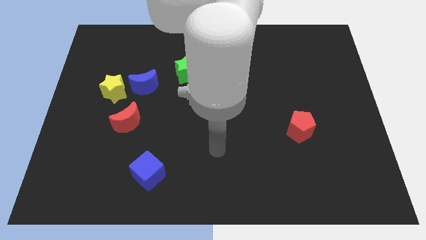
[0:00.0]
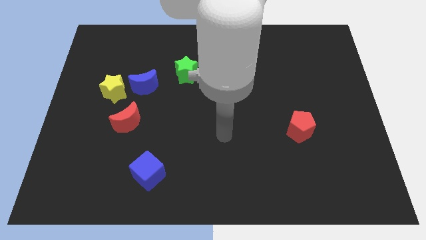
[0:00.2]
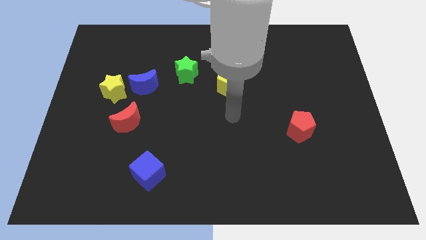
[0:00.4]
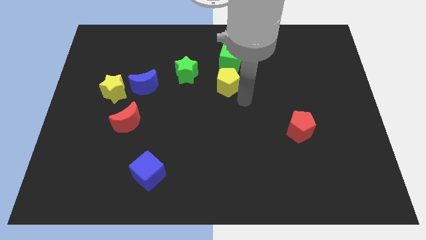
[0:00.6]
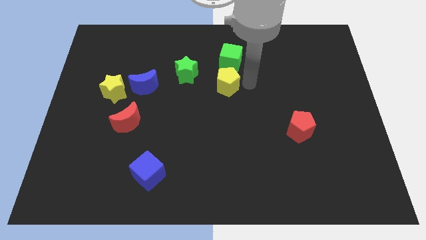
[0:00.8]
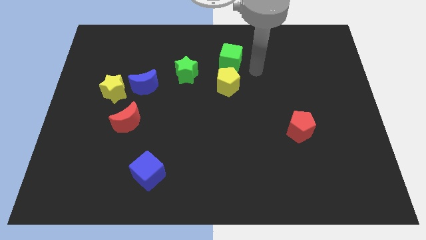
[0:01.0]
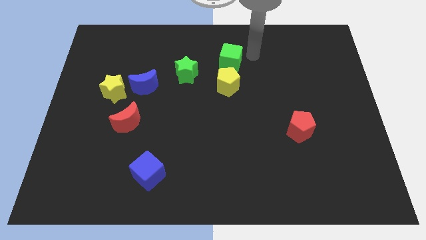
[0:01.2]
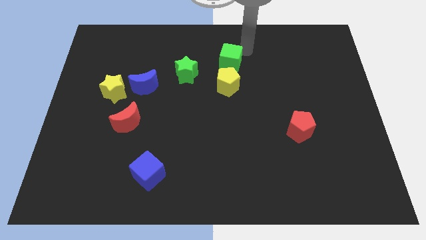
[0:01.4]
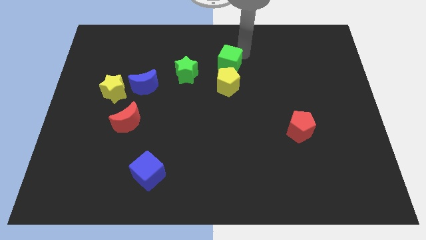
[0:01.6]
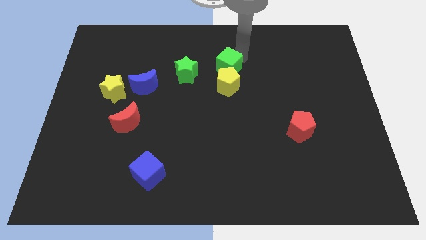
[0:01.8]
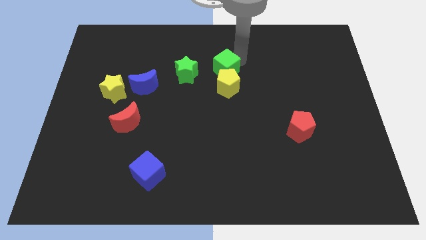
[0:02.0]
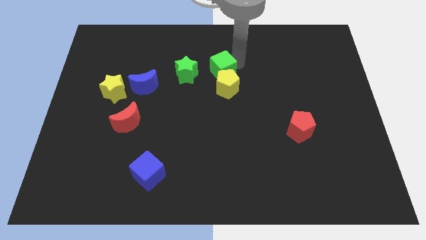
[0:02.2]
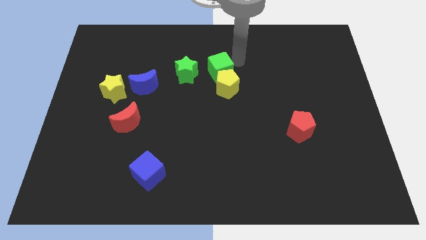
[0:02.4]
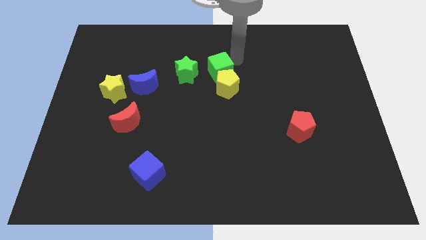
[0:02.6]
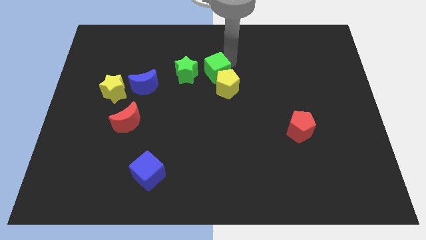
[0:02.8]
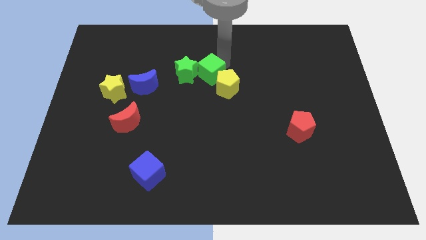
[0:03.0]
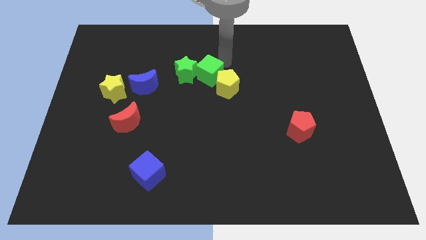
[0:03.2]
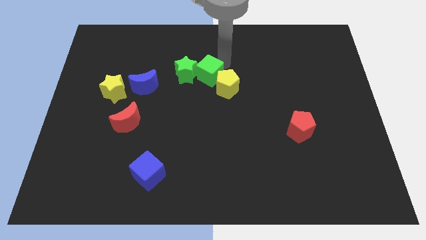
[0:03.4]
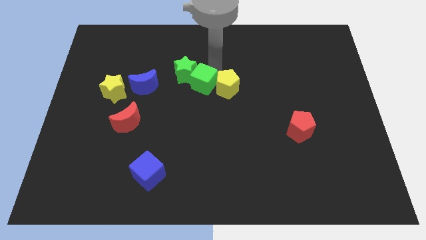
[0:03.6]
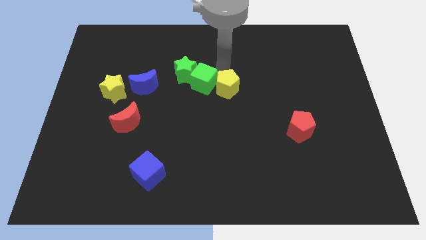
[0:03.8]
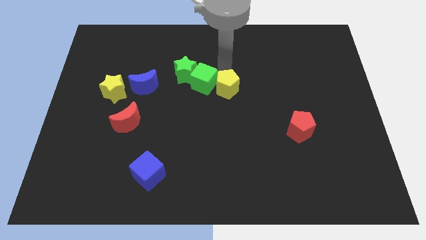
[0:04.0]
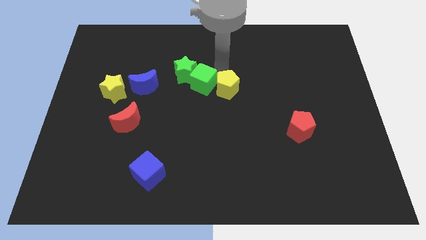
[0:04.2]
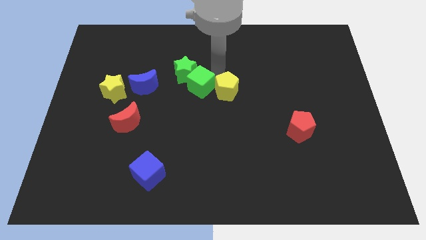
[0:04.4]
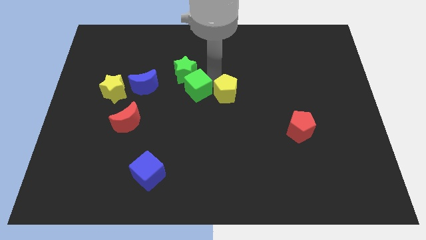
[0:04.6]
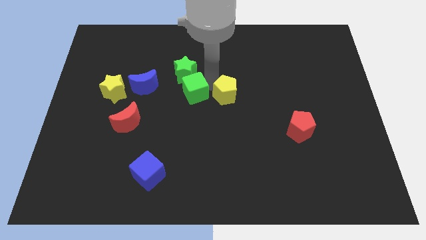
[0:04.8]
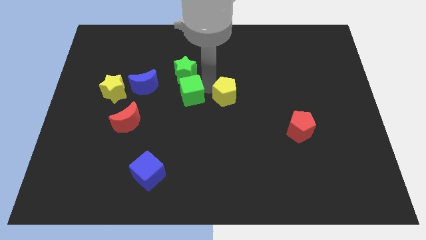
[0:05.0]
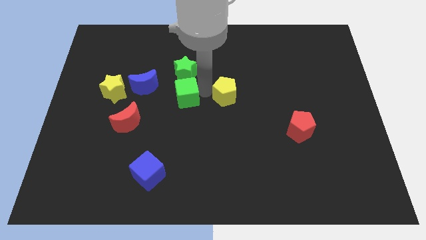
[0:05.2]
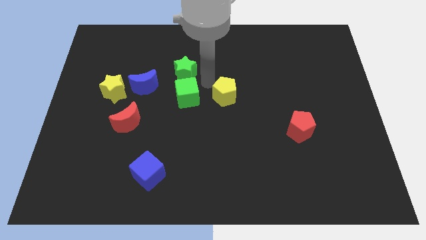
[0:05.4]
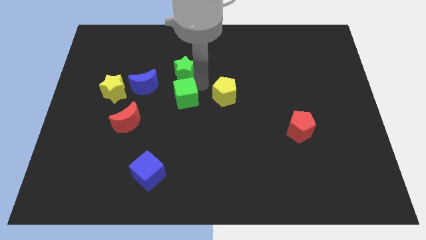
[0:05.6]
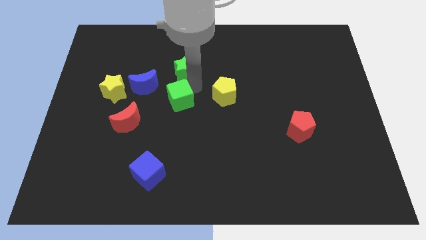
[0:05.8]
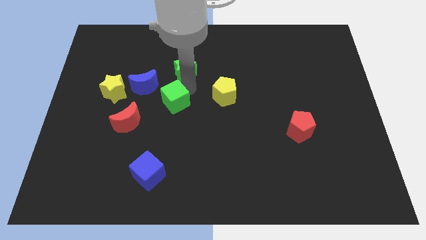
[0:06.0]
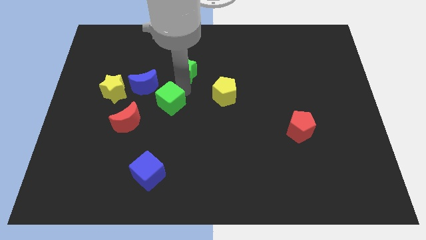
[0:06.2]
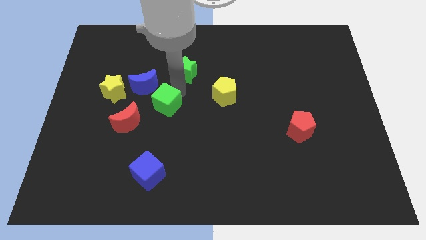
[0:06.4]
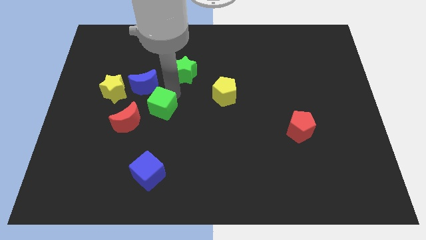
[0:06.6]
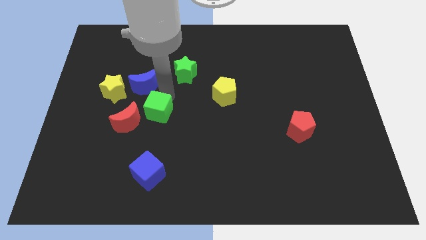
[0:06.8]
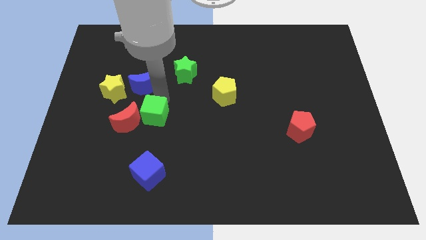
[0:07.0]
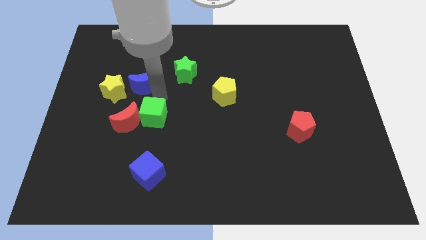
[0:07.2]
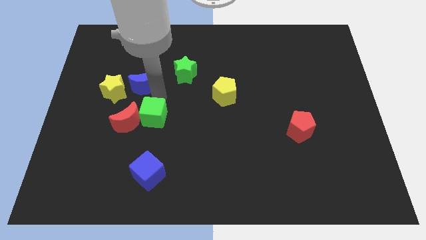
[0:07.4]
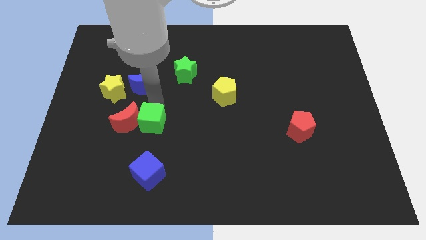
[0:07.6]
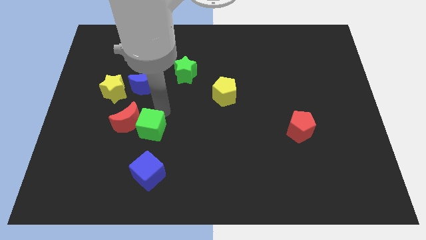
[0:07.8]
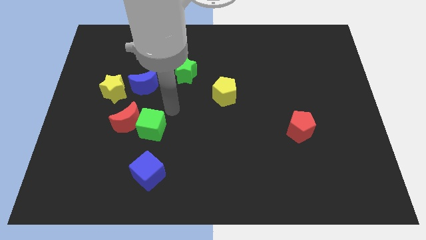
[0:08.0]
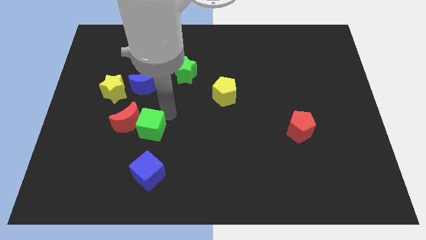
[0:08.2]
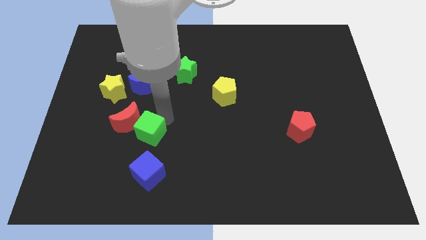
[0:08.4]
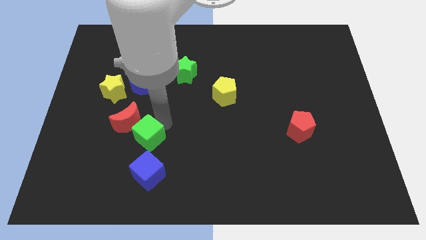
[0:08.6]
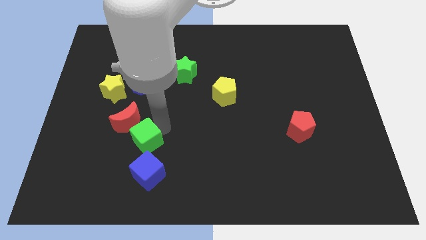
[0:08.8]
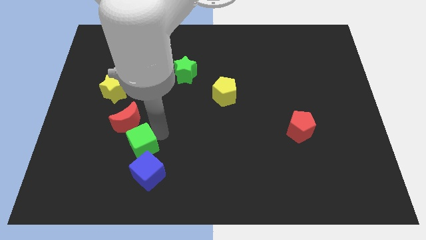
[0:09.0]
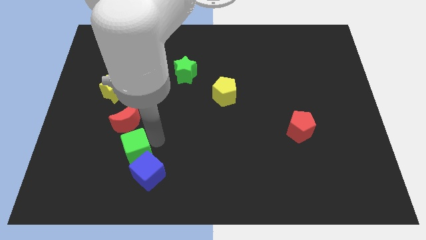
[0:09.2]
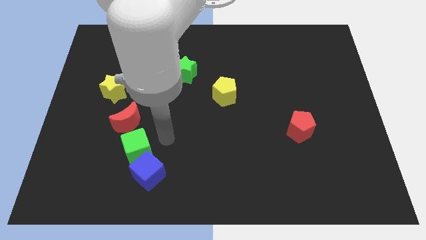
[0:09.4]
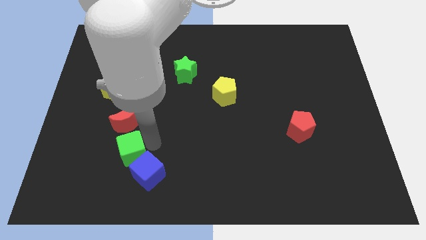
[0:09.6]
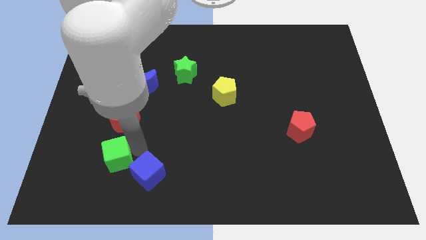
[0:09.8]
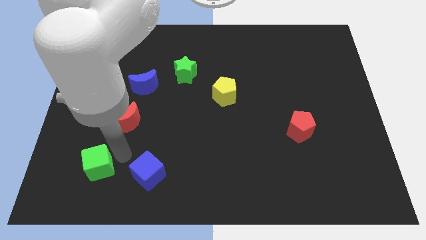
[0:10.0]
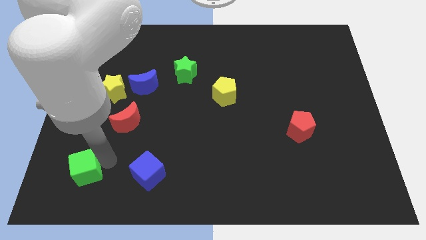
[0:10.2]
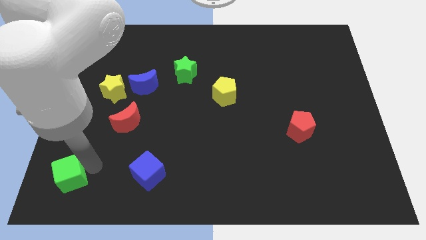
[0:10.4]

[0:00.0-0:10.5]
put the green cube to the lower left corner
